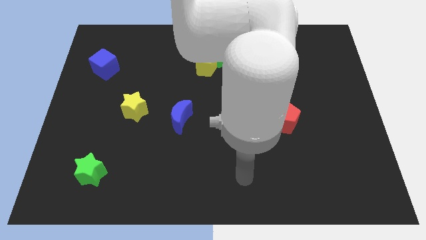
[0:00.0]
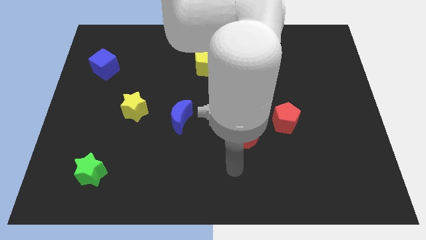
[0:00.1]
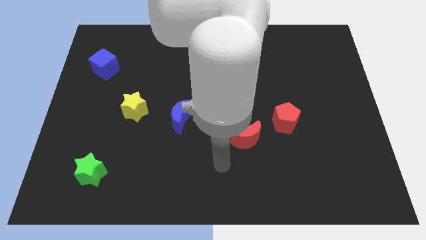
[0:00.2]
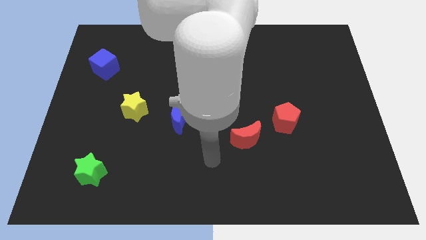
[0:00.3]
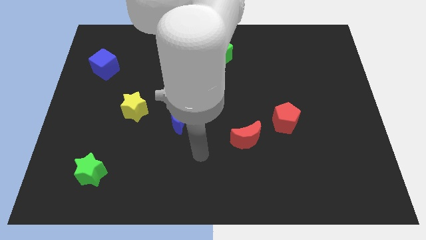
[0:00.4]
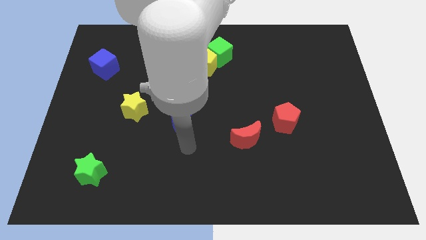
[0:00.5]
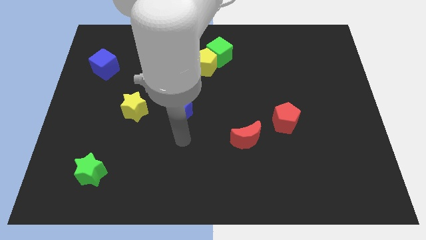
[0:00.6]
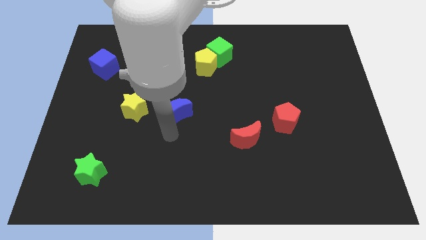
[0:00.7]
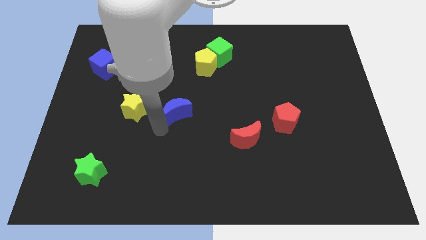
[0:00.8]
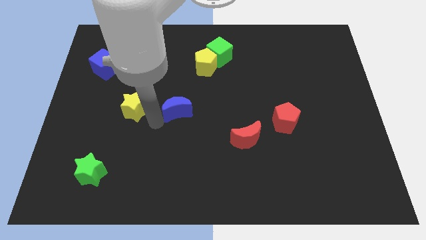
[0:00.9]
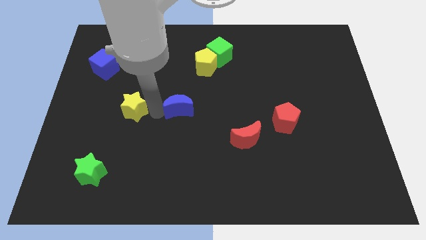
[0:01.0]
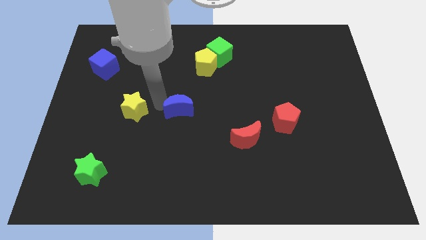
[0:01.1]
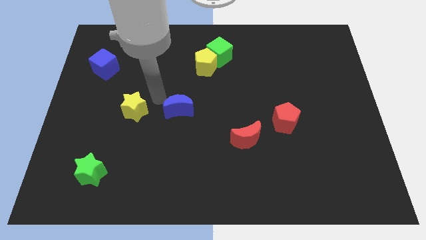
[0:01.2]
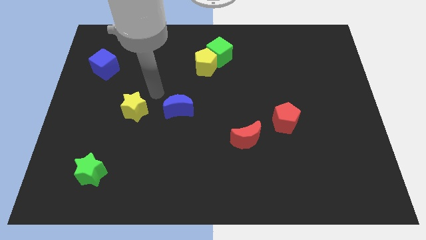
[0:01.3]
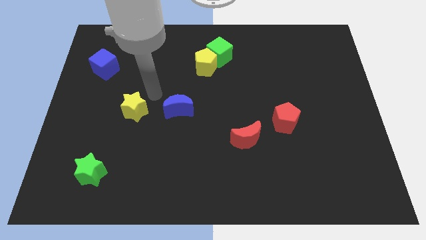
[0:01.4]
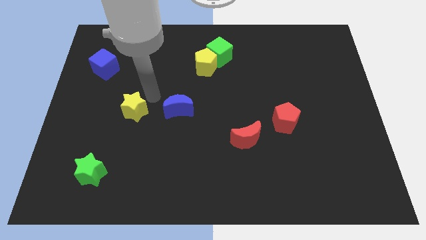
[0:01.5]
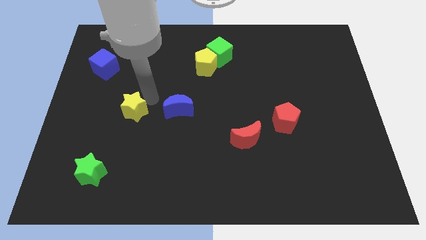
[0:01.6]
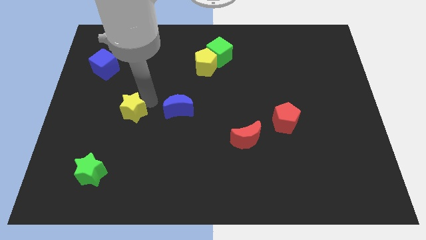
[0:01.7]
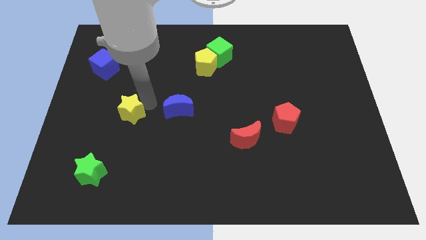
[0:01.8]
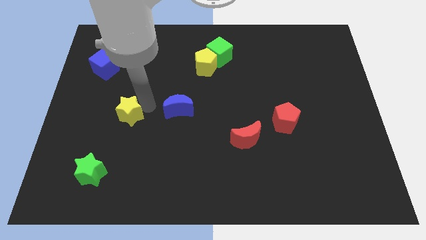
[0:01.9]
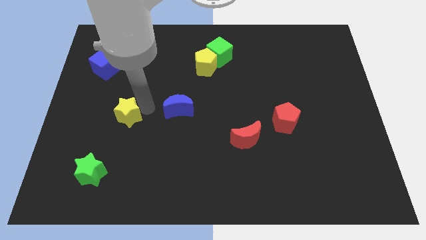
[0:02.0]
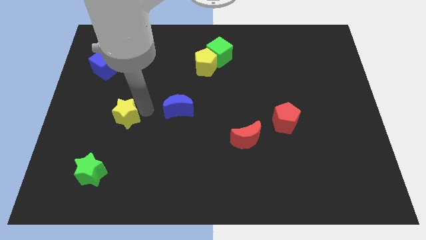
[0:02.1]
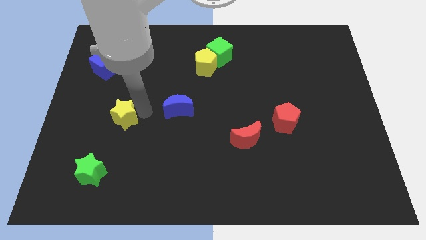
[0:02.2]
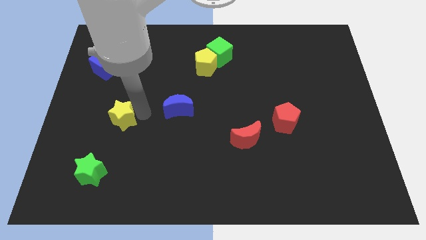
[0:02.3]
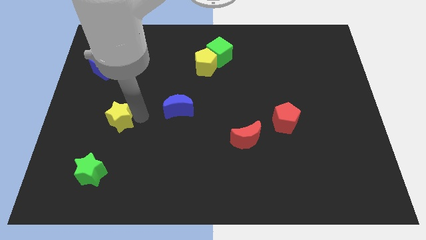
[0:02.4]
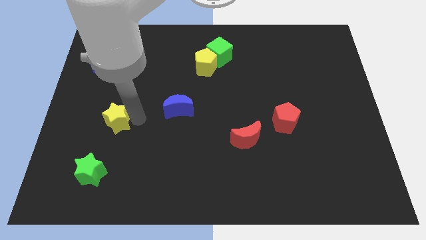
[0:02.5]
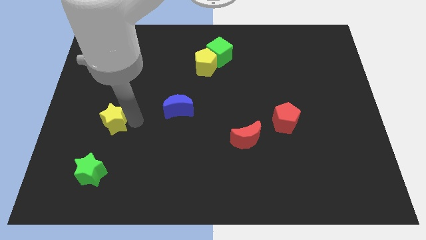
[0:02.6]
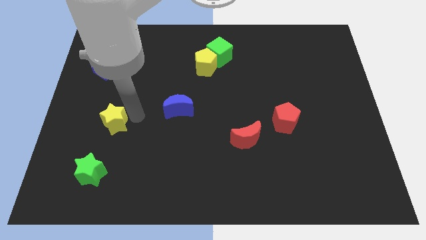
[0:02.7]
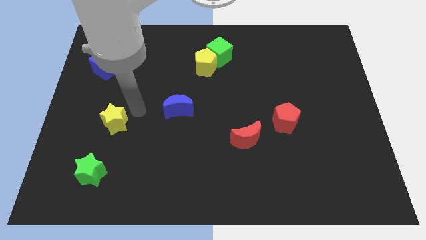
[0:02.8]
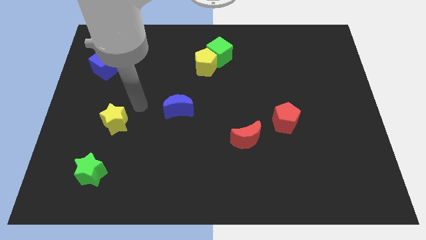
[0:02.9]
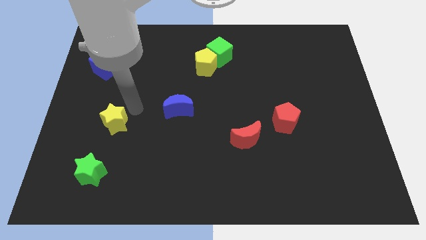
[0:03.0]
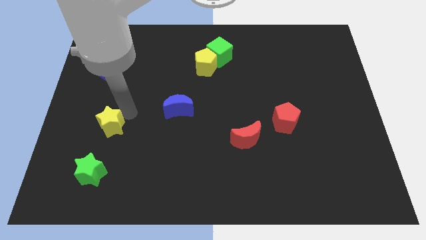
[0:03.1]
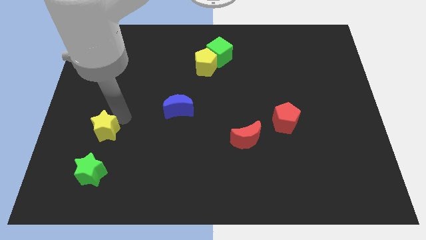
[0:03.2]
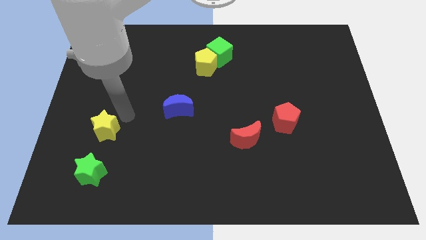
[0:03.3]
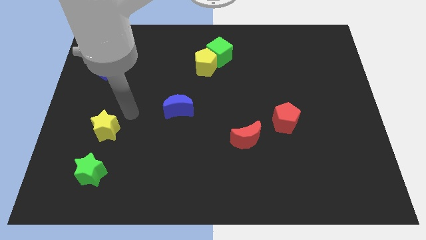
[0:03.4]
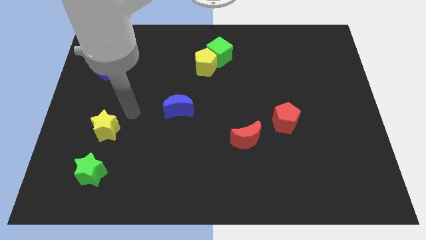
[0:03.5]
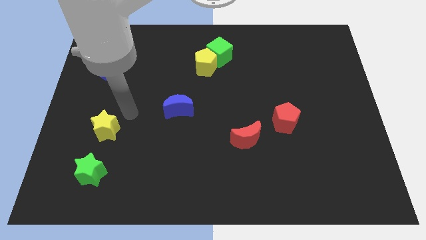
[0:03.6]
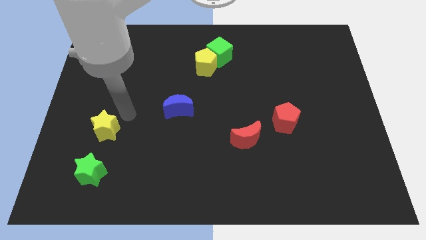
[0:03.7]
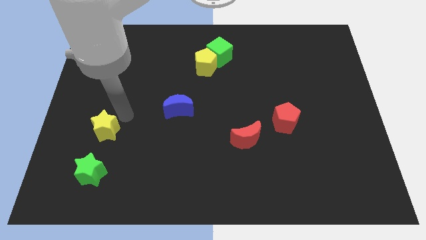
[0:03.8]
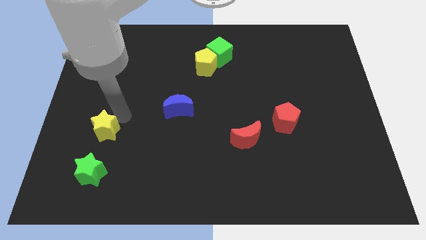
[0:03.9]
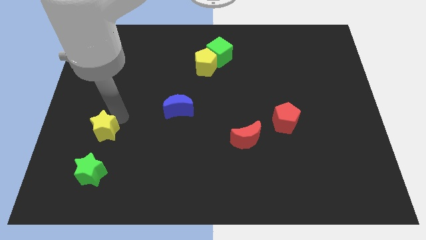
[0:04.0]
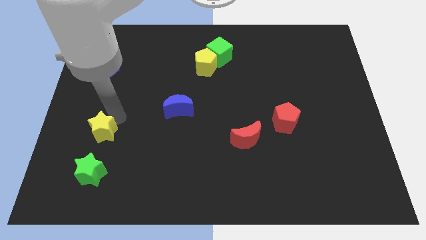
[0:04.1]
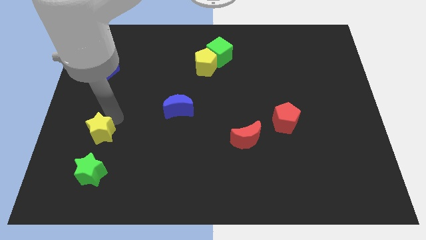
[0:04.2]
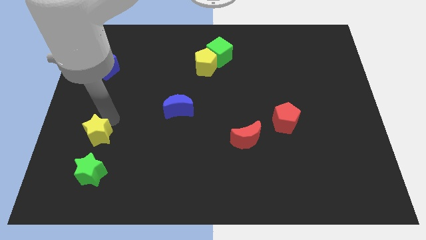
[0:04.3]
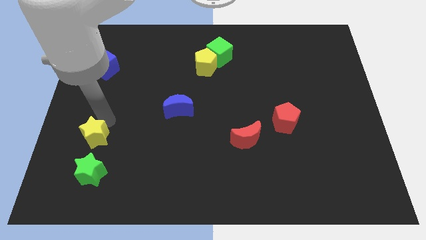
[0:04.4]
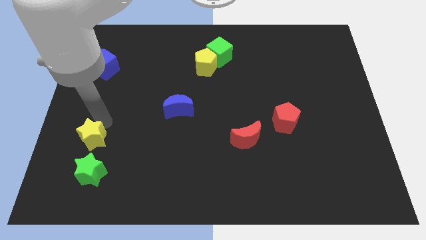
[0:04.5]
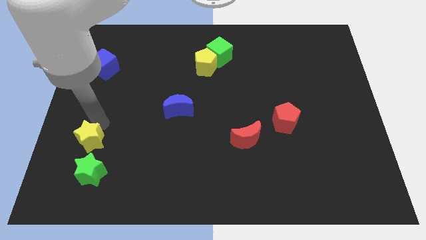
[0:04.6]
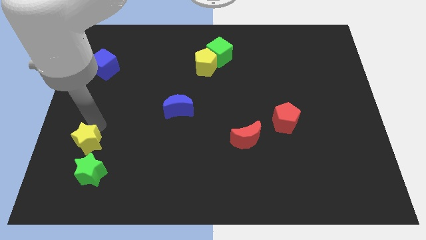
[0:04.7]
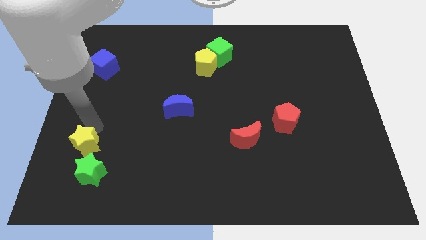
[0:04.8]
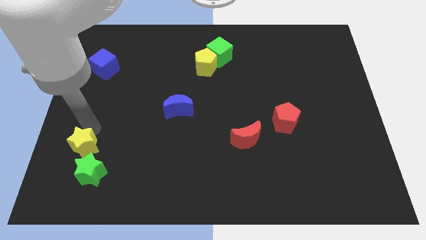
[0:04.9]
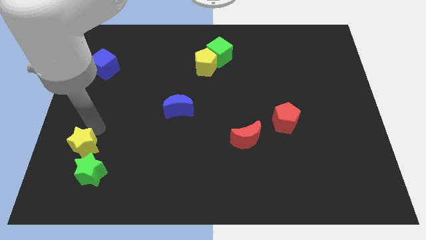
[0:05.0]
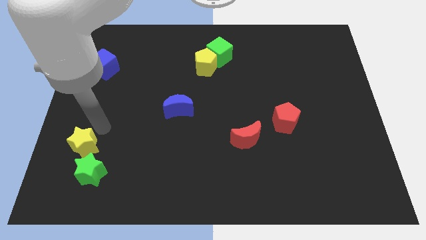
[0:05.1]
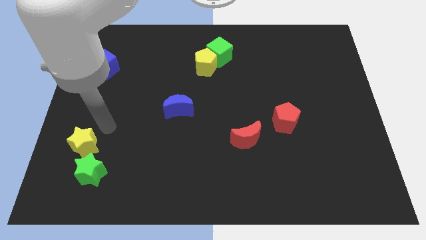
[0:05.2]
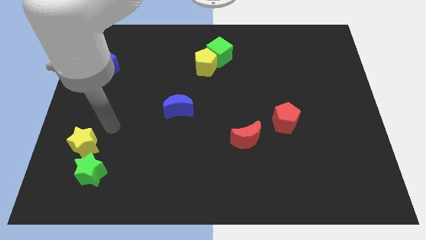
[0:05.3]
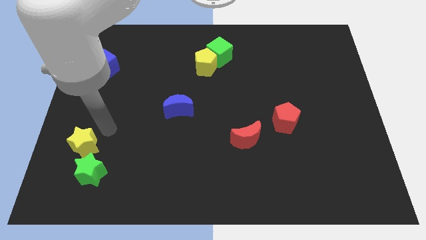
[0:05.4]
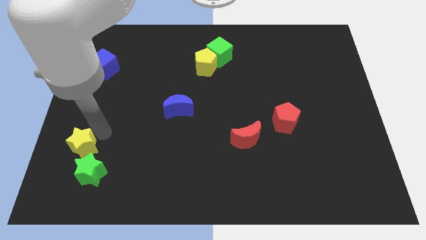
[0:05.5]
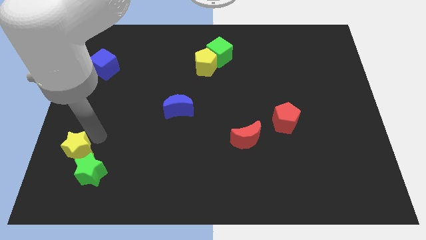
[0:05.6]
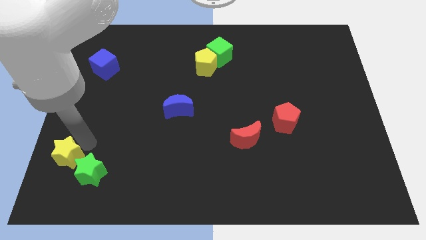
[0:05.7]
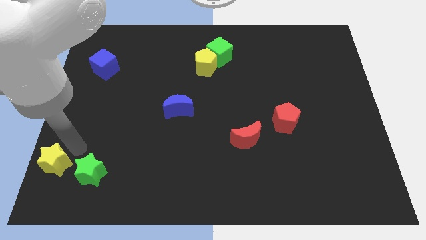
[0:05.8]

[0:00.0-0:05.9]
put the yellow star to the bottom left of the board
